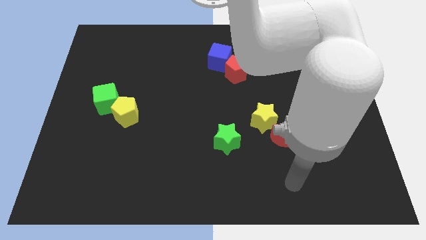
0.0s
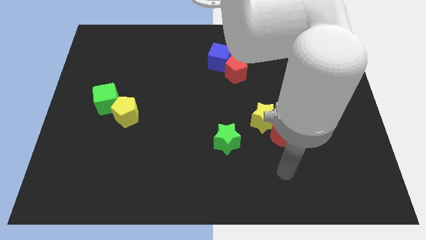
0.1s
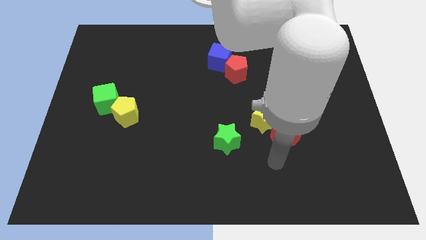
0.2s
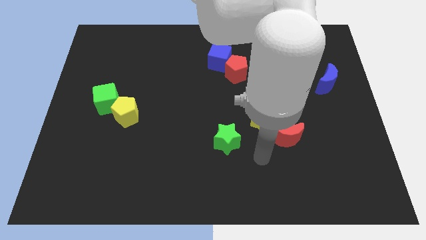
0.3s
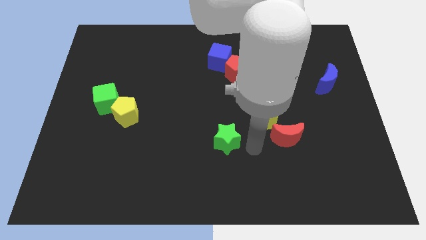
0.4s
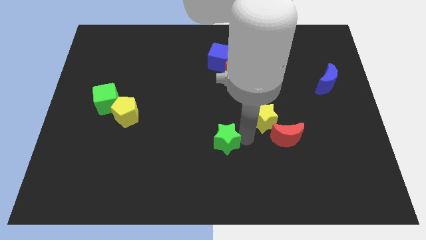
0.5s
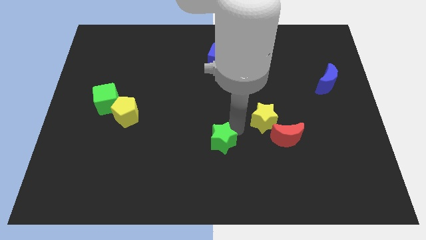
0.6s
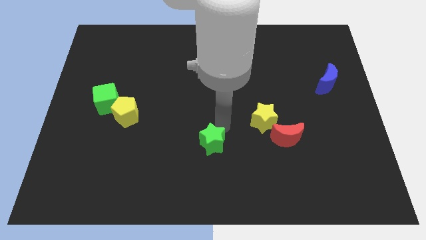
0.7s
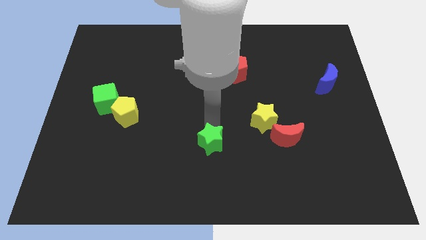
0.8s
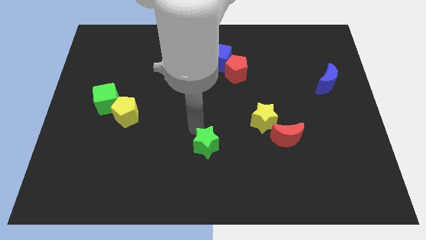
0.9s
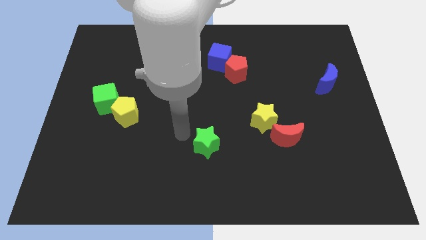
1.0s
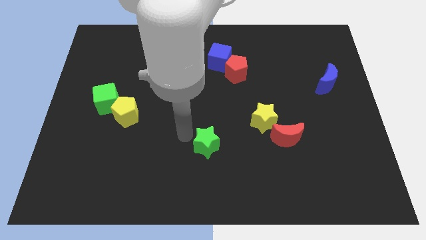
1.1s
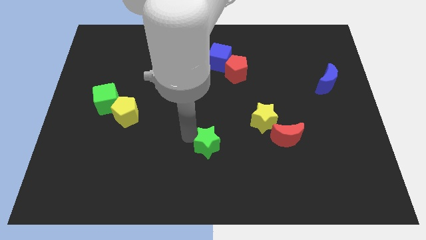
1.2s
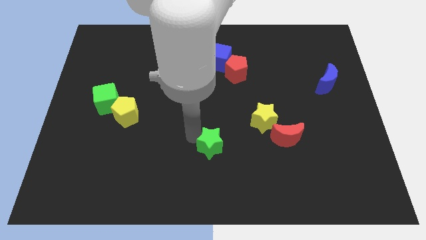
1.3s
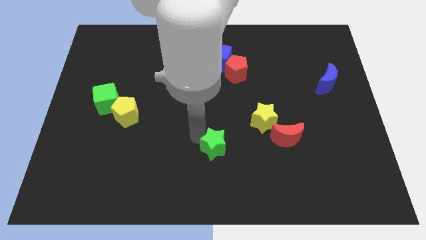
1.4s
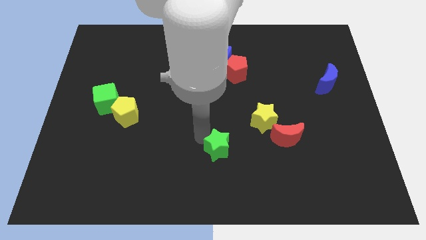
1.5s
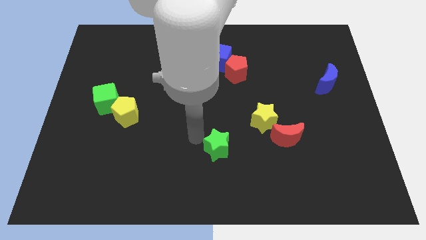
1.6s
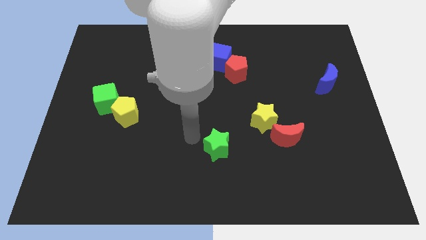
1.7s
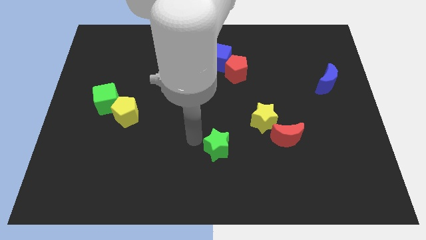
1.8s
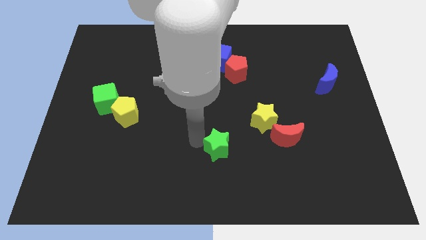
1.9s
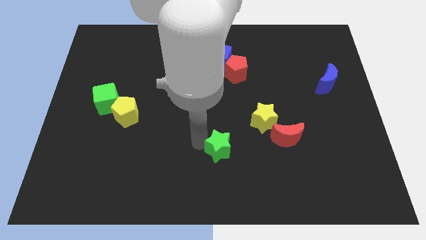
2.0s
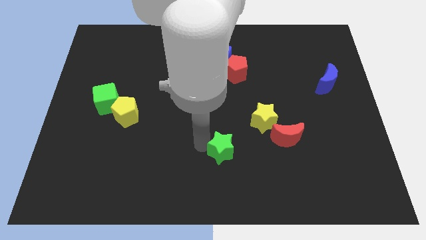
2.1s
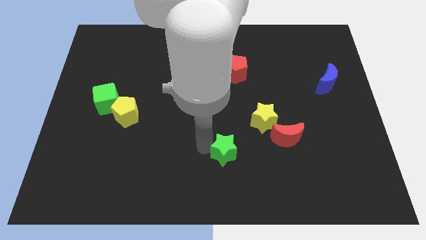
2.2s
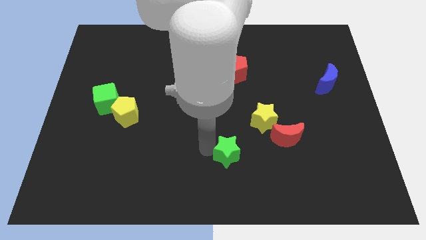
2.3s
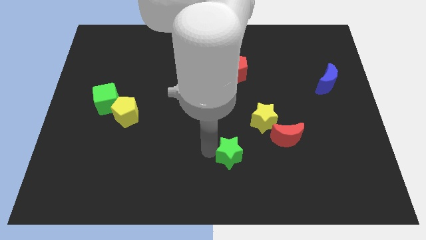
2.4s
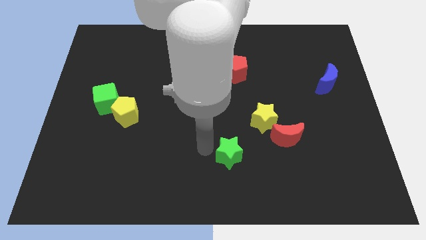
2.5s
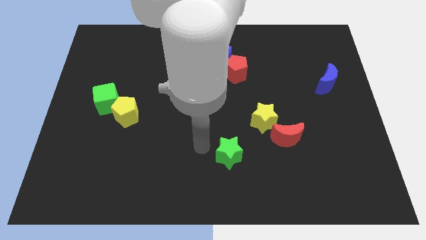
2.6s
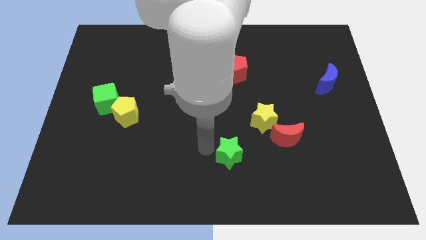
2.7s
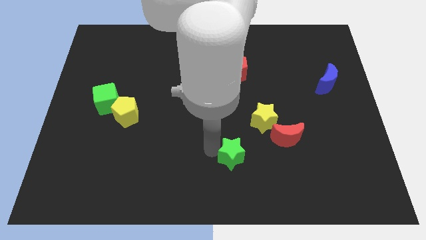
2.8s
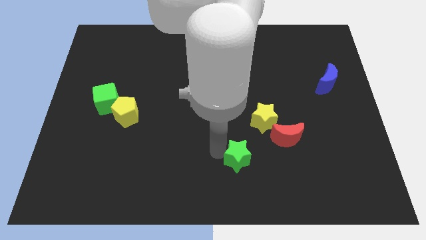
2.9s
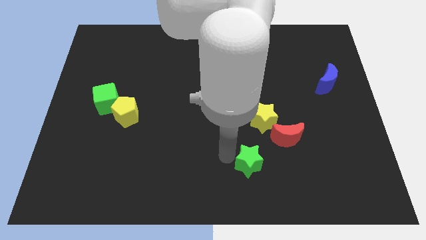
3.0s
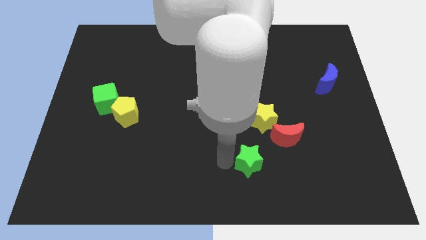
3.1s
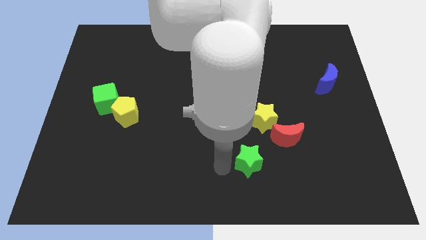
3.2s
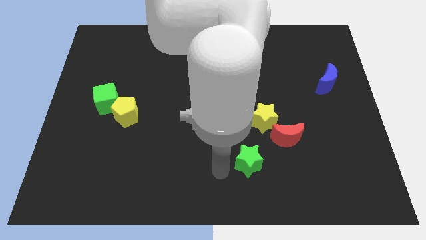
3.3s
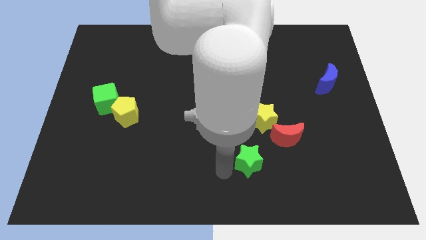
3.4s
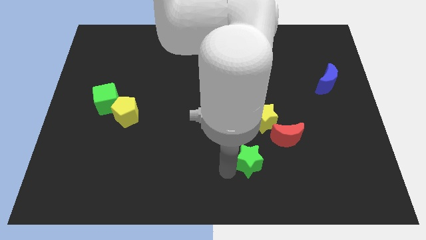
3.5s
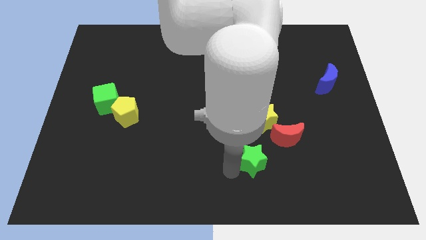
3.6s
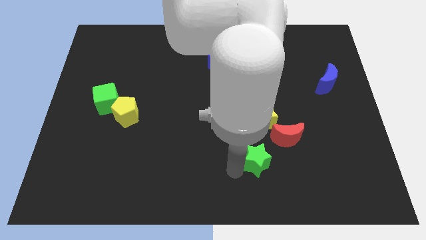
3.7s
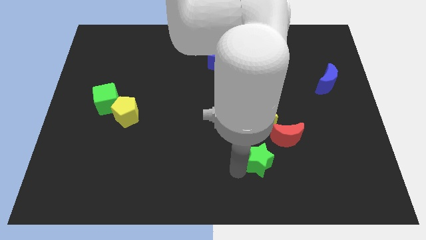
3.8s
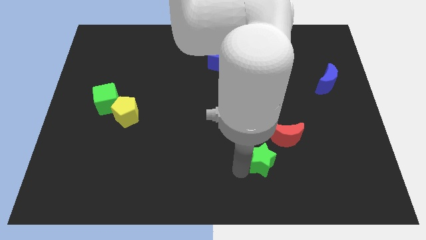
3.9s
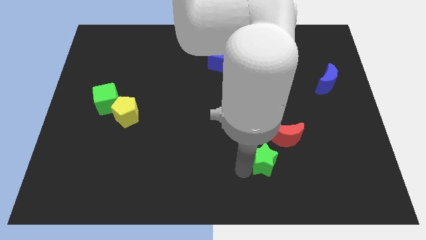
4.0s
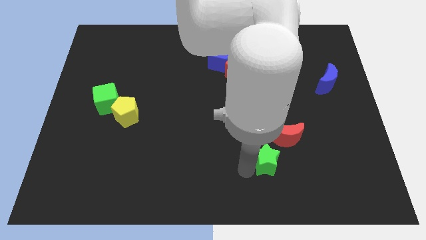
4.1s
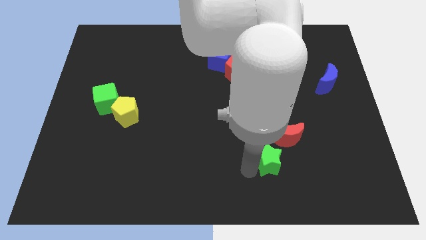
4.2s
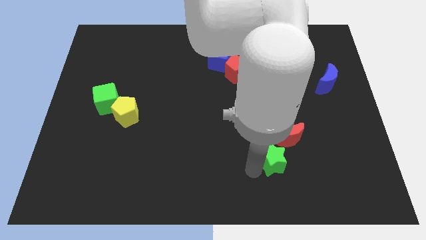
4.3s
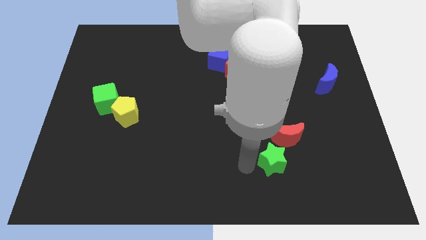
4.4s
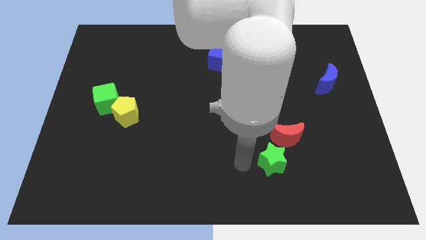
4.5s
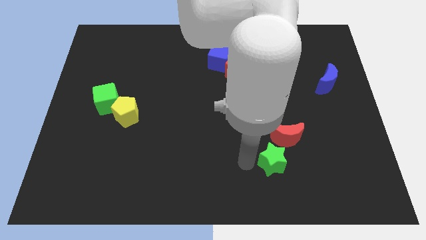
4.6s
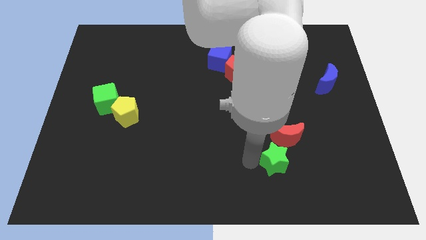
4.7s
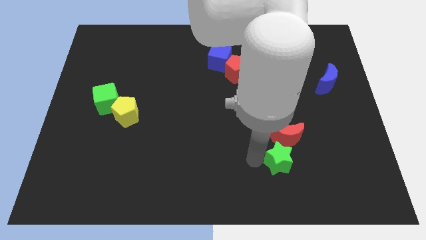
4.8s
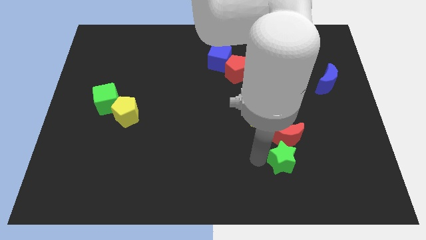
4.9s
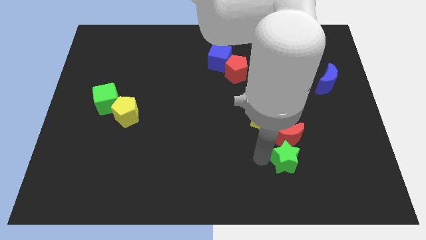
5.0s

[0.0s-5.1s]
move the green star diagonally down and to the right of the red moon

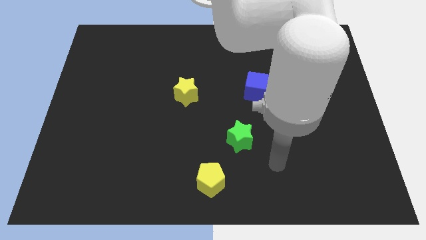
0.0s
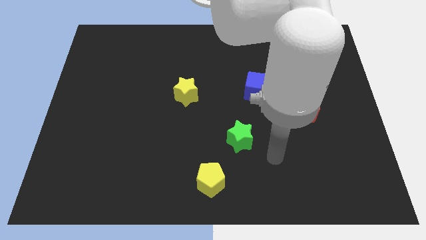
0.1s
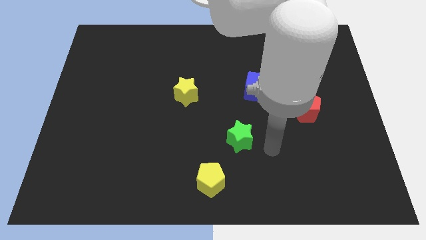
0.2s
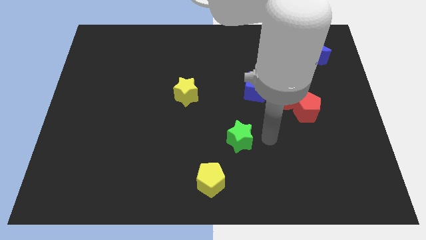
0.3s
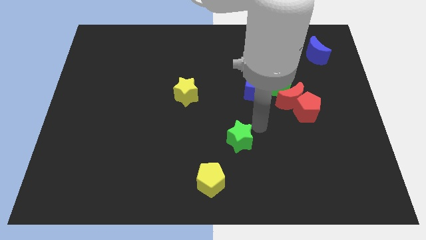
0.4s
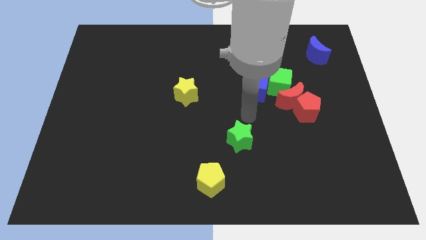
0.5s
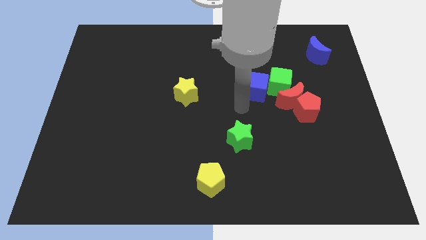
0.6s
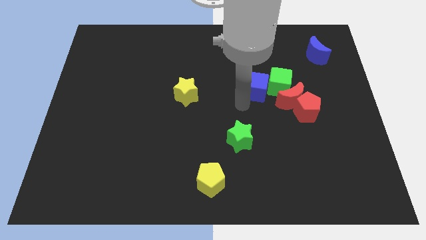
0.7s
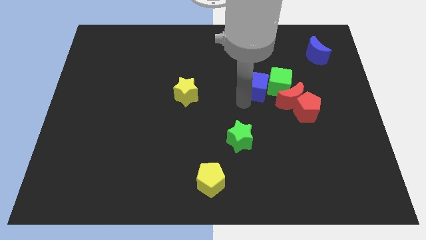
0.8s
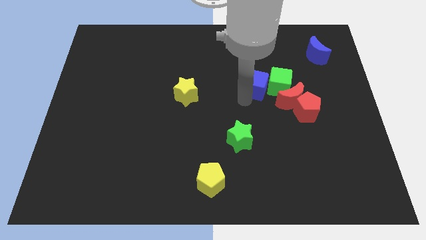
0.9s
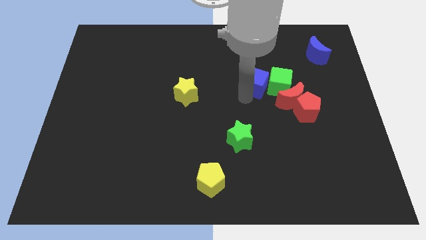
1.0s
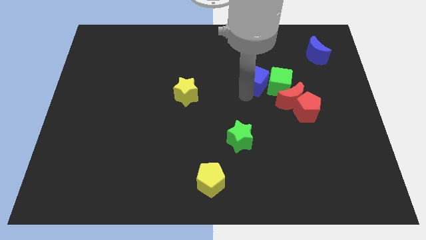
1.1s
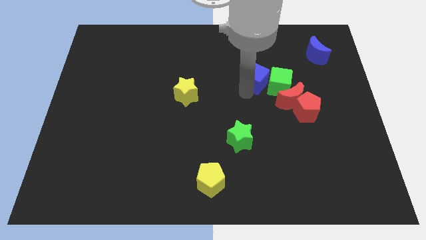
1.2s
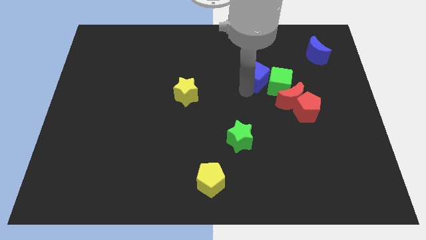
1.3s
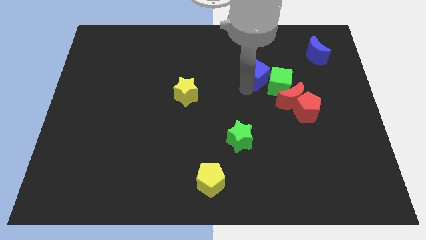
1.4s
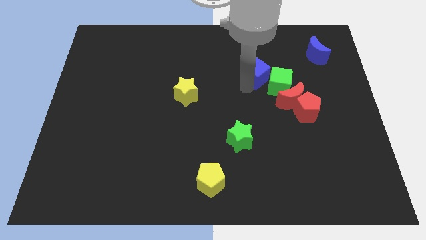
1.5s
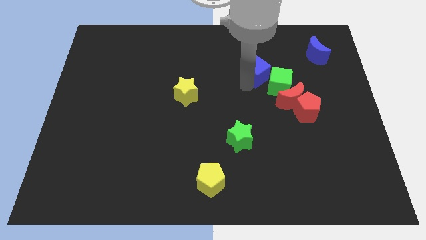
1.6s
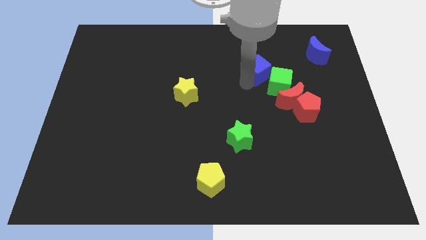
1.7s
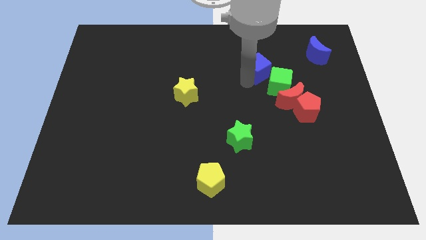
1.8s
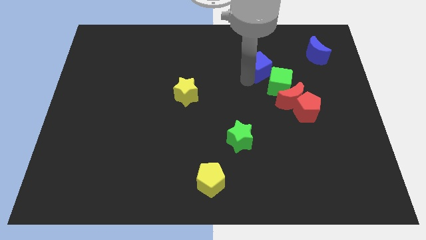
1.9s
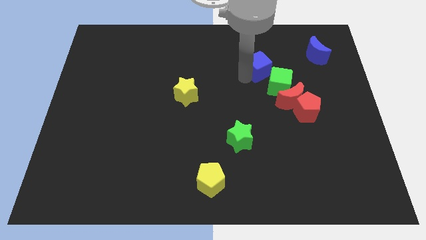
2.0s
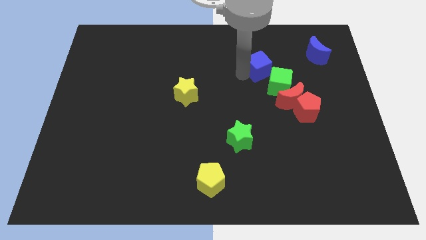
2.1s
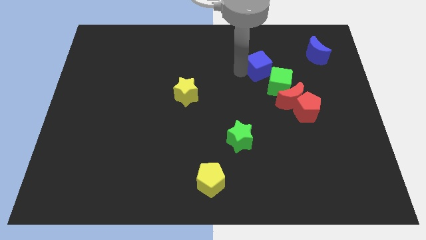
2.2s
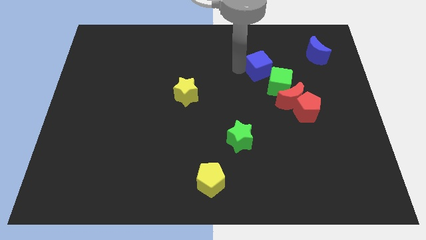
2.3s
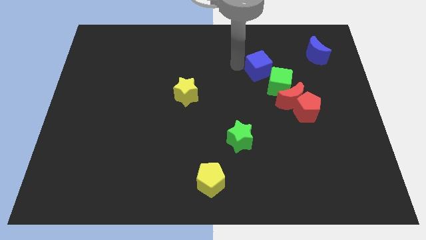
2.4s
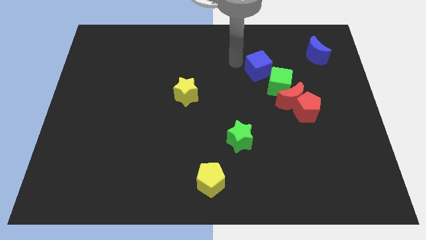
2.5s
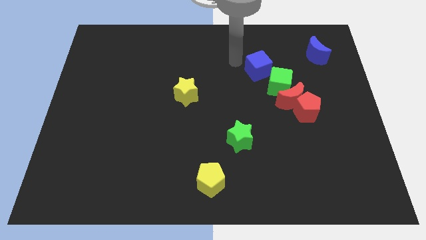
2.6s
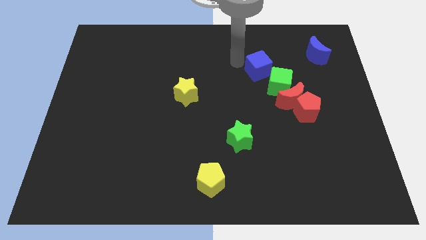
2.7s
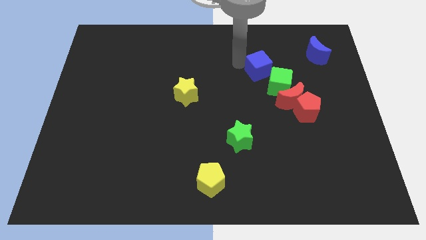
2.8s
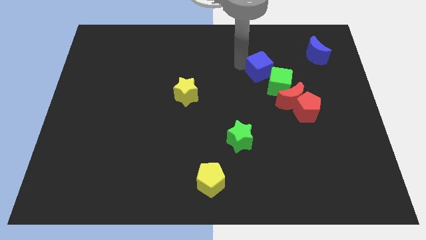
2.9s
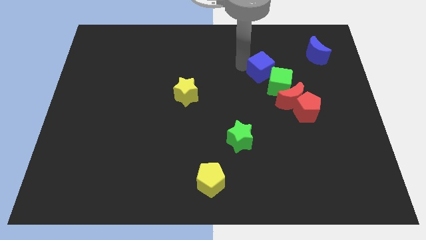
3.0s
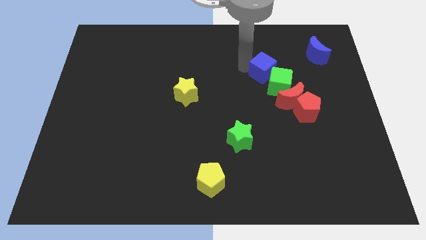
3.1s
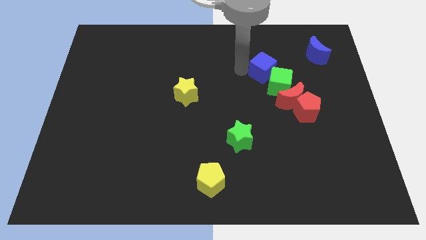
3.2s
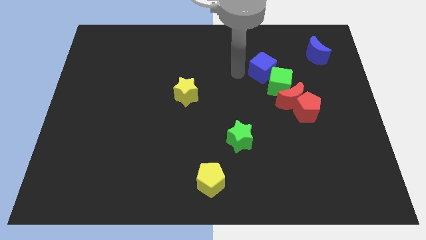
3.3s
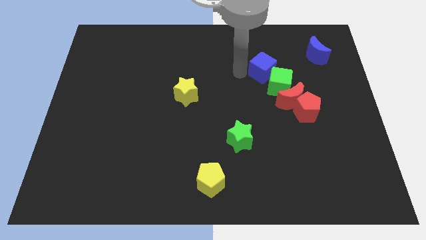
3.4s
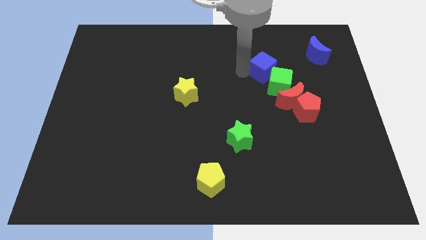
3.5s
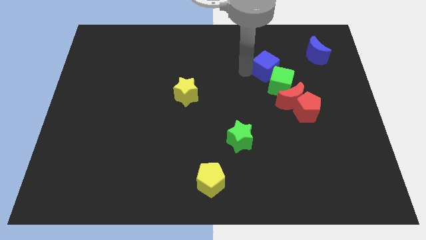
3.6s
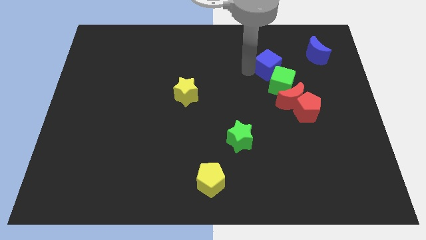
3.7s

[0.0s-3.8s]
slide the blue cube above the red moon
